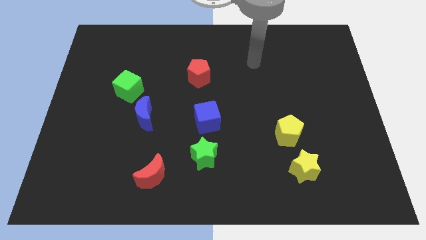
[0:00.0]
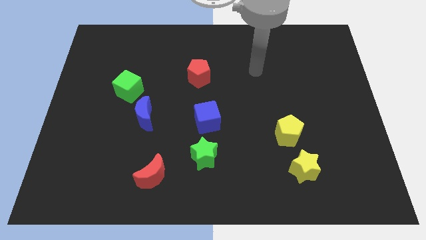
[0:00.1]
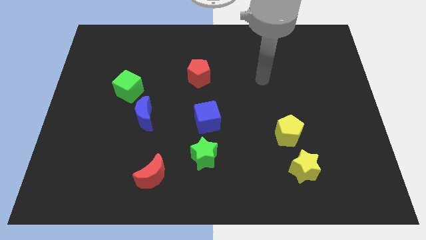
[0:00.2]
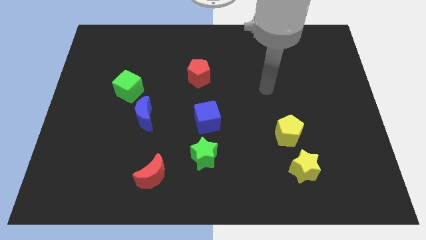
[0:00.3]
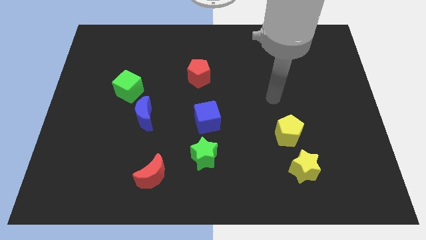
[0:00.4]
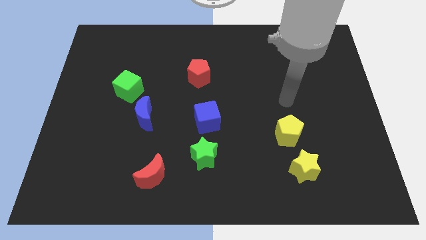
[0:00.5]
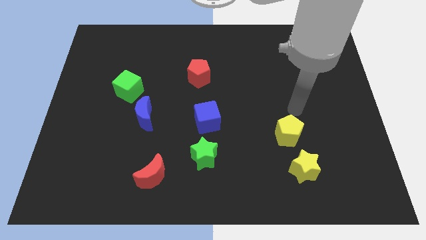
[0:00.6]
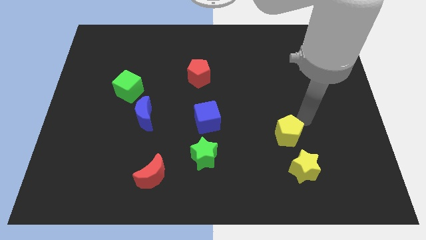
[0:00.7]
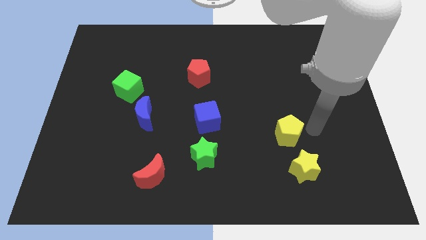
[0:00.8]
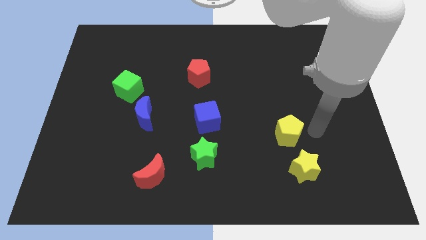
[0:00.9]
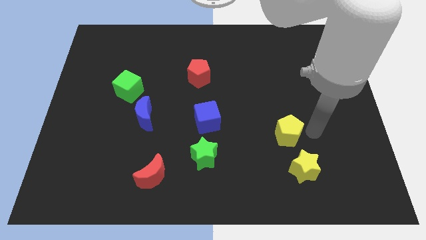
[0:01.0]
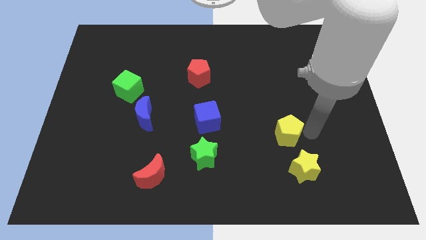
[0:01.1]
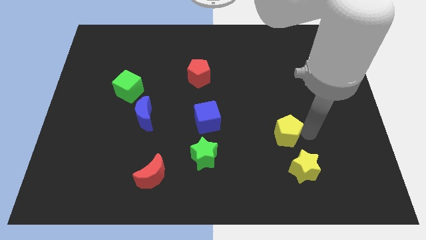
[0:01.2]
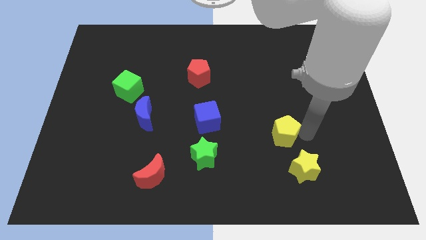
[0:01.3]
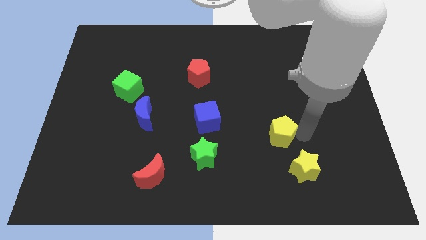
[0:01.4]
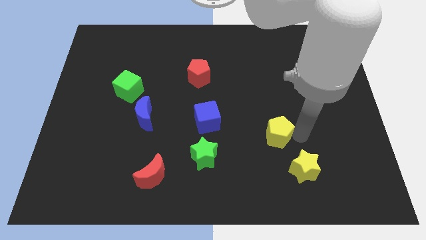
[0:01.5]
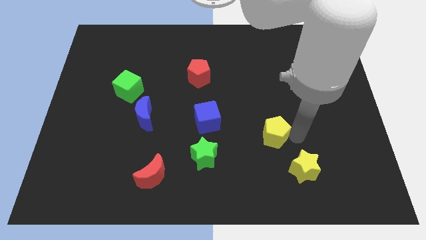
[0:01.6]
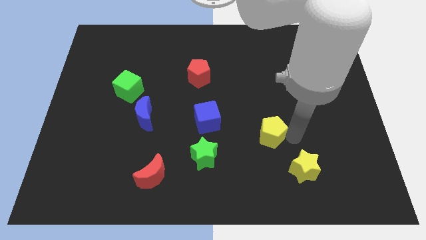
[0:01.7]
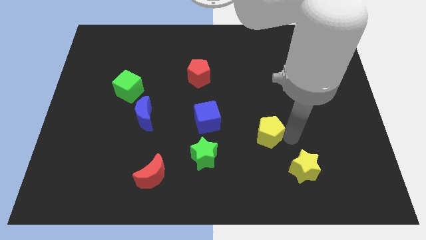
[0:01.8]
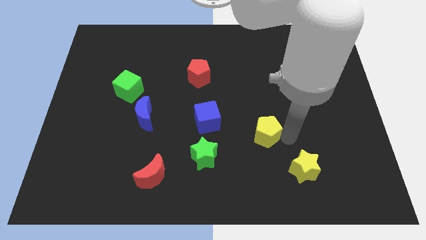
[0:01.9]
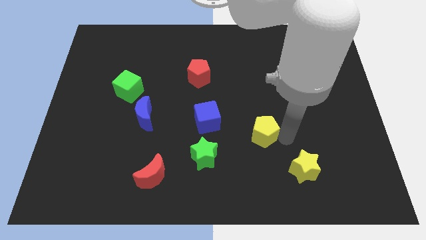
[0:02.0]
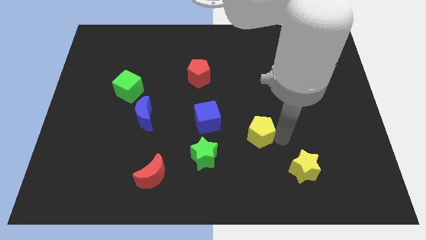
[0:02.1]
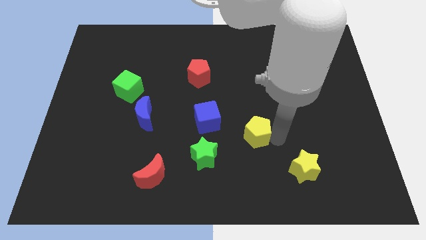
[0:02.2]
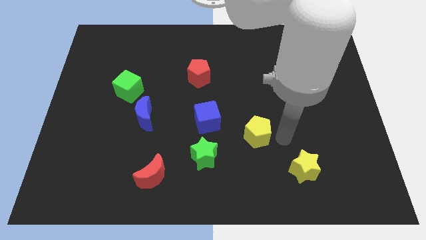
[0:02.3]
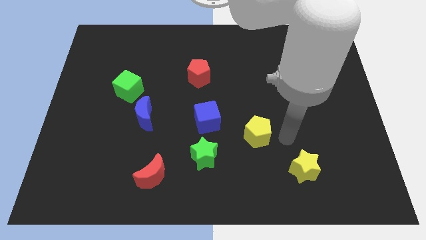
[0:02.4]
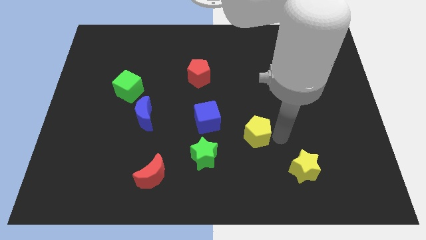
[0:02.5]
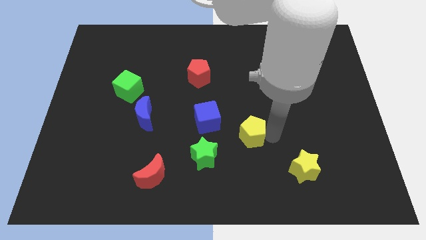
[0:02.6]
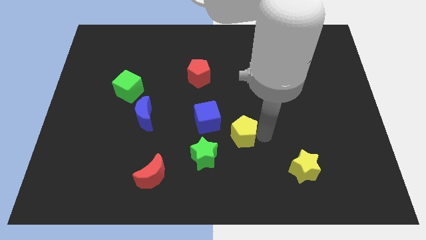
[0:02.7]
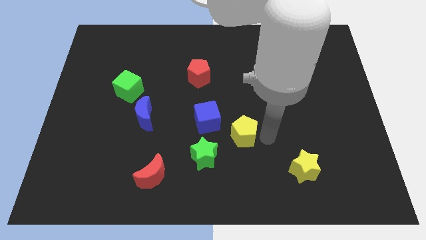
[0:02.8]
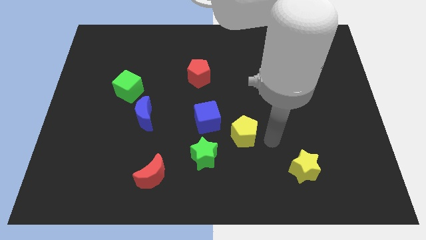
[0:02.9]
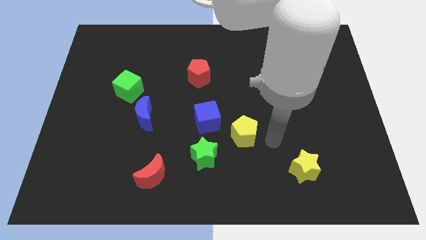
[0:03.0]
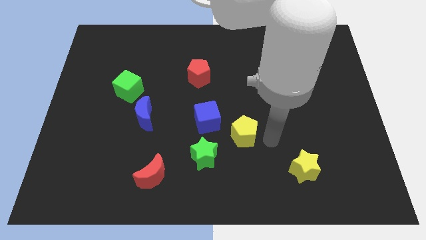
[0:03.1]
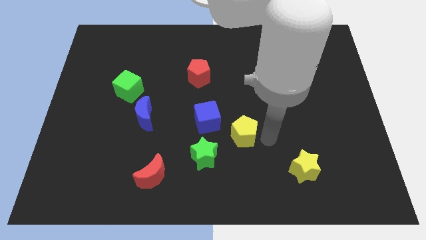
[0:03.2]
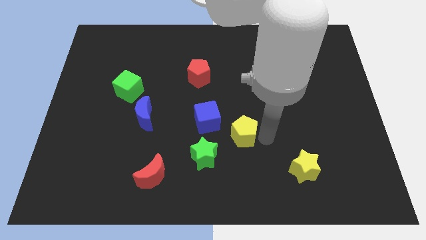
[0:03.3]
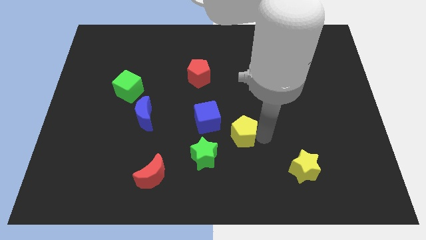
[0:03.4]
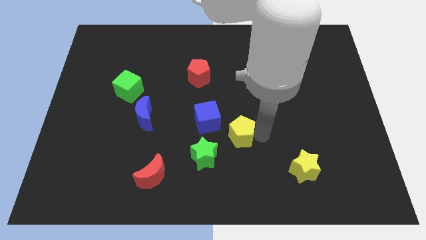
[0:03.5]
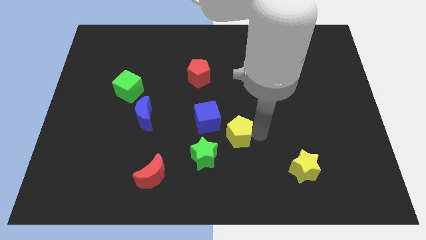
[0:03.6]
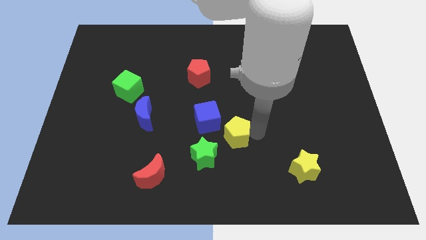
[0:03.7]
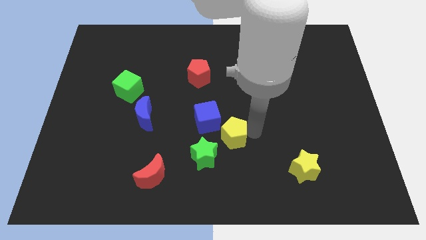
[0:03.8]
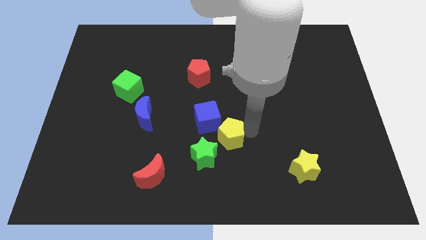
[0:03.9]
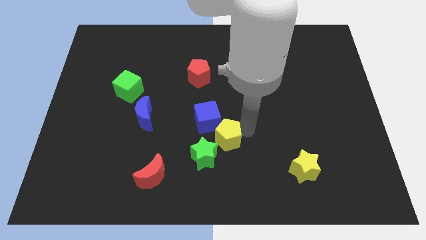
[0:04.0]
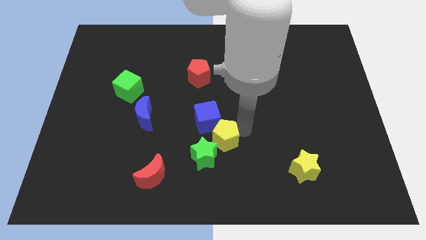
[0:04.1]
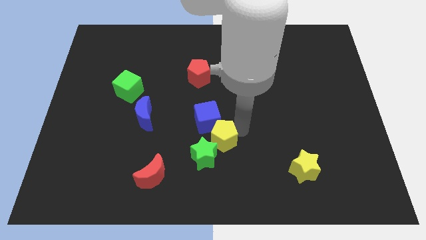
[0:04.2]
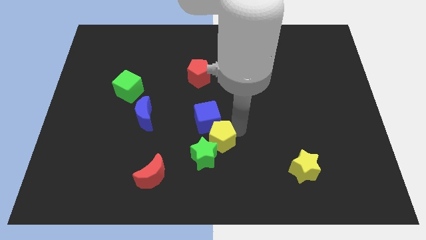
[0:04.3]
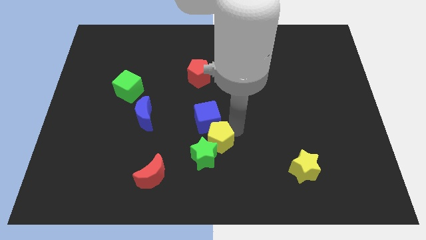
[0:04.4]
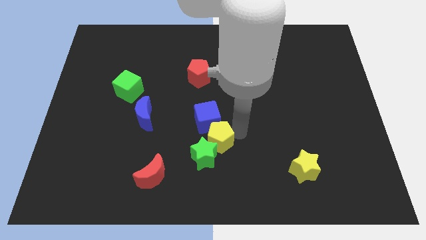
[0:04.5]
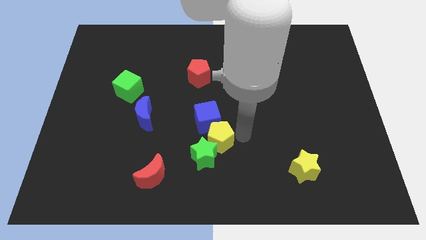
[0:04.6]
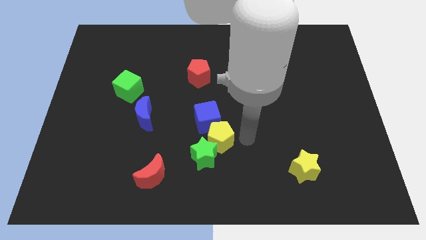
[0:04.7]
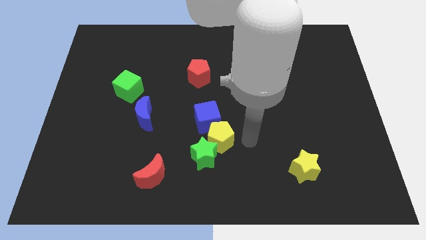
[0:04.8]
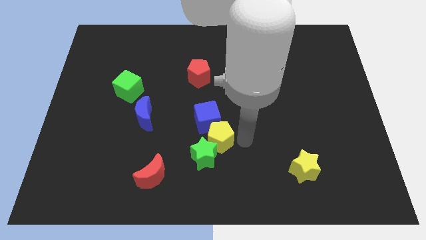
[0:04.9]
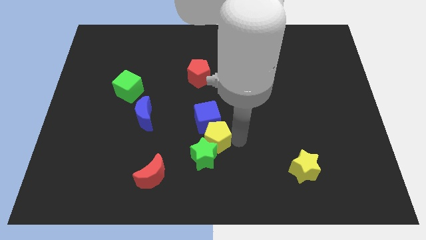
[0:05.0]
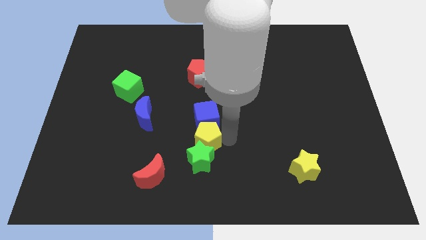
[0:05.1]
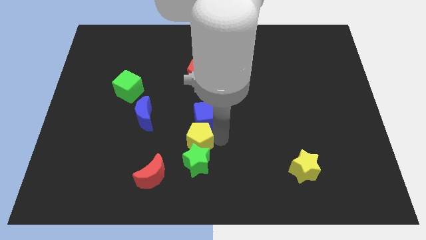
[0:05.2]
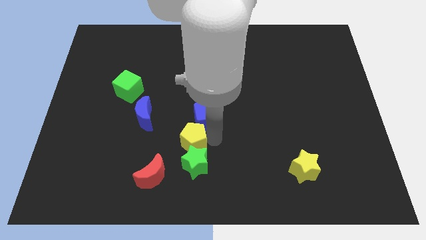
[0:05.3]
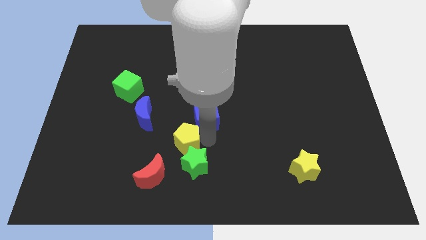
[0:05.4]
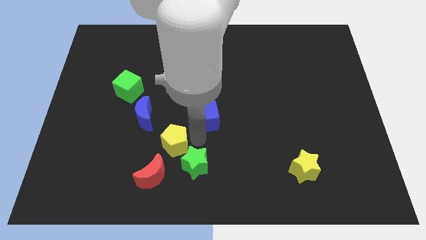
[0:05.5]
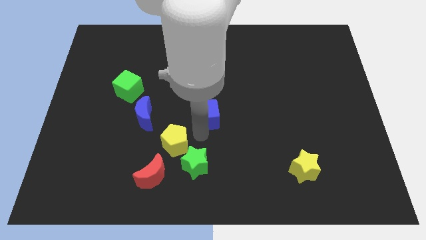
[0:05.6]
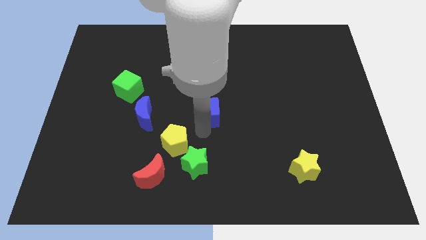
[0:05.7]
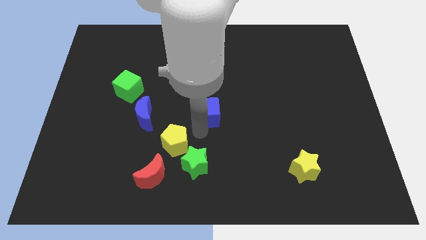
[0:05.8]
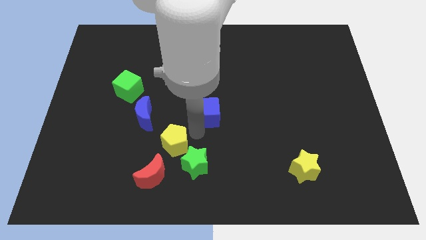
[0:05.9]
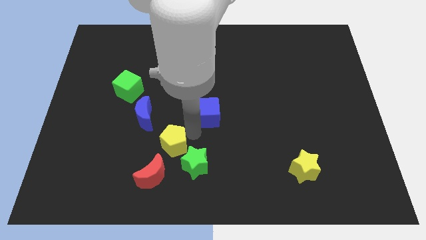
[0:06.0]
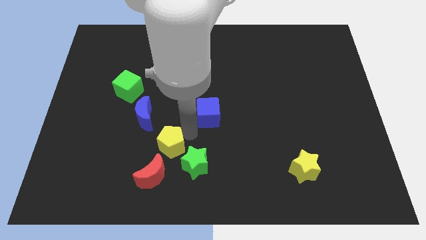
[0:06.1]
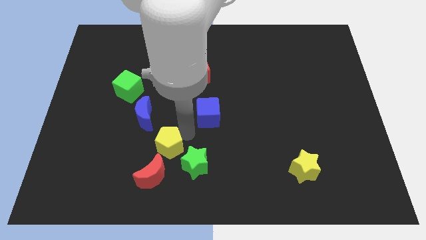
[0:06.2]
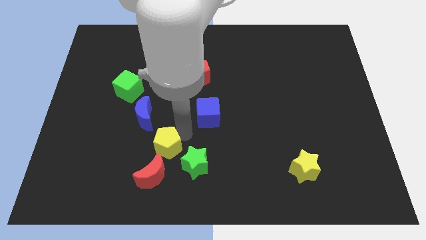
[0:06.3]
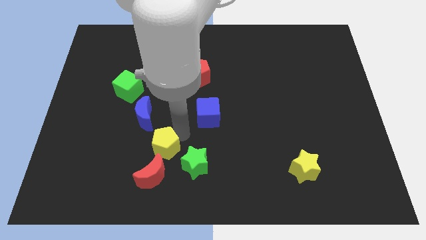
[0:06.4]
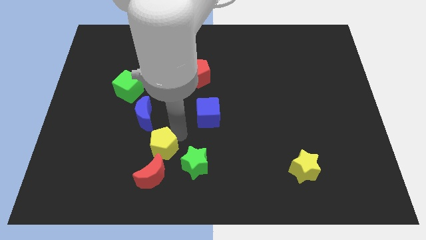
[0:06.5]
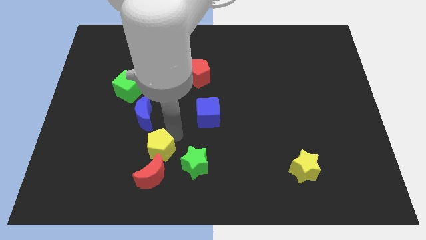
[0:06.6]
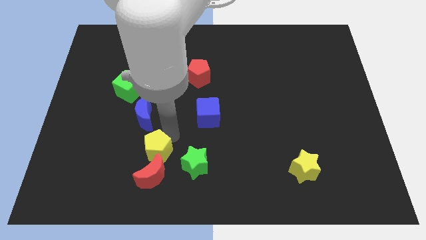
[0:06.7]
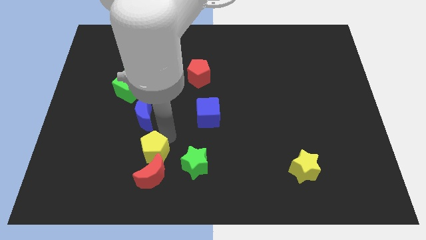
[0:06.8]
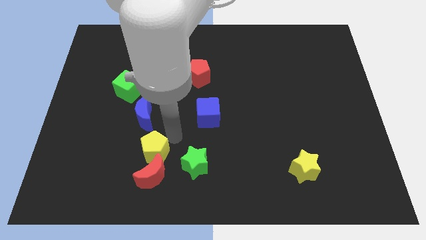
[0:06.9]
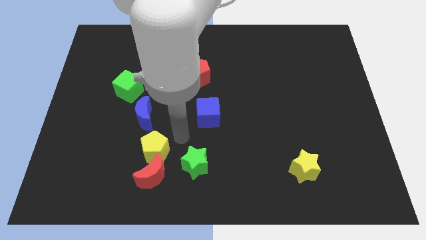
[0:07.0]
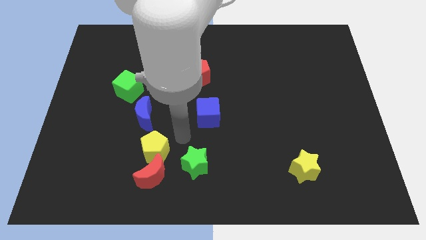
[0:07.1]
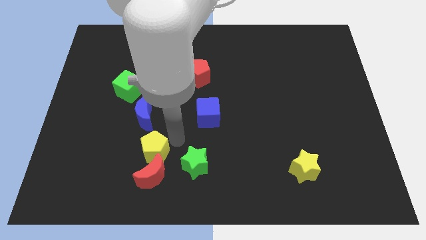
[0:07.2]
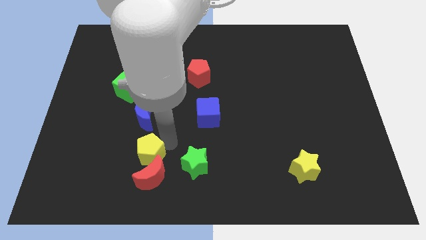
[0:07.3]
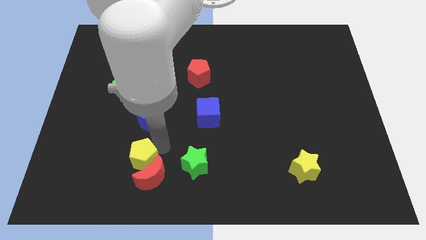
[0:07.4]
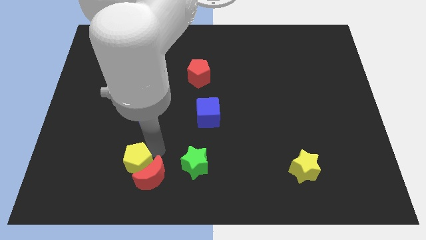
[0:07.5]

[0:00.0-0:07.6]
push the yellow pentagon to the left of the red moon
